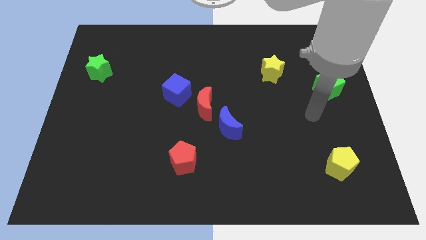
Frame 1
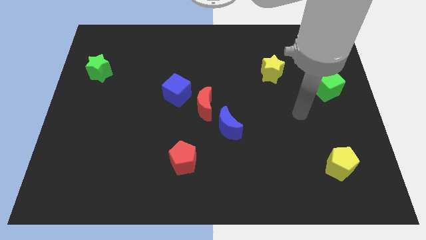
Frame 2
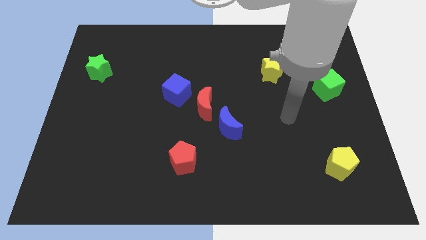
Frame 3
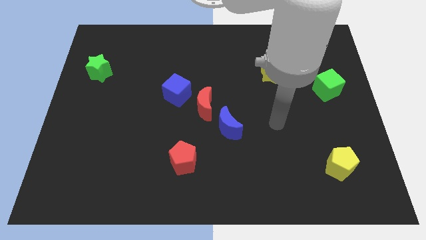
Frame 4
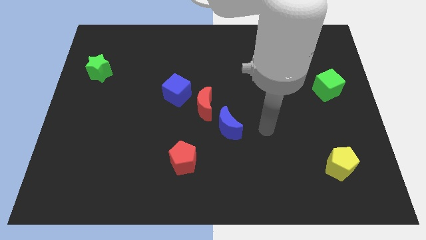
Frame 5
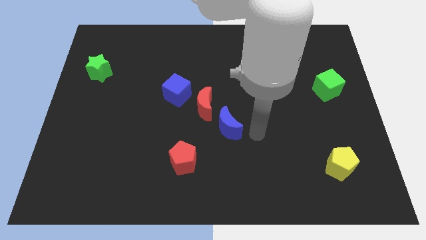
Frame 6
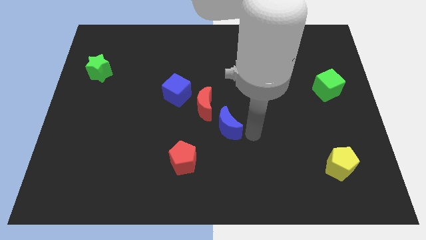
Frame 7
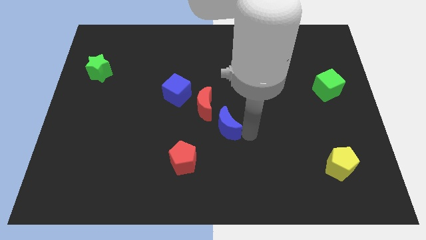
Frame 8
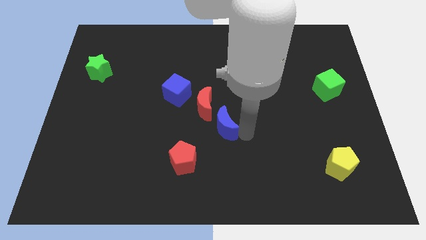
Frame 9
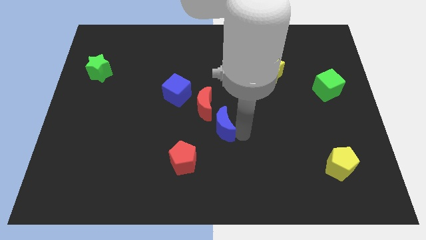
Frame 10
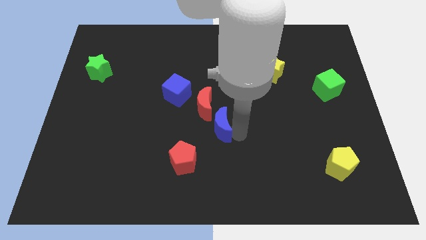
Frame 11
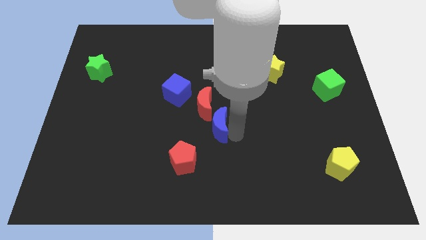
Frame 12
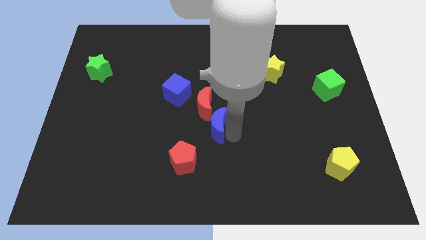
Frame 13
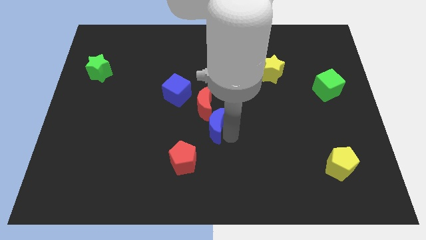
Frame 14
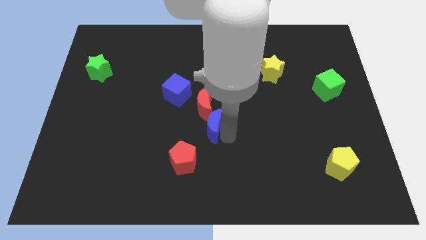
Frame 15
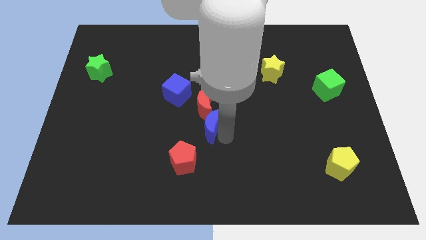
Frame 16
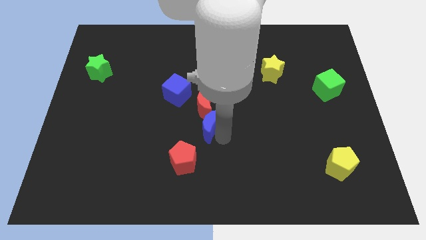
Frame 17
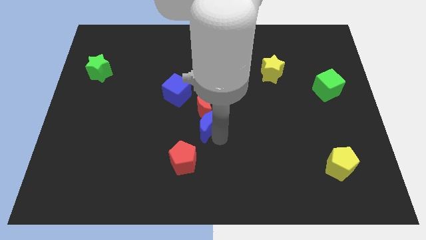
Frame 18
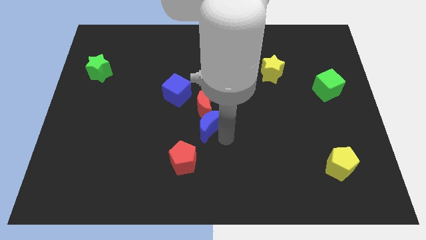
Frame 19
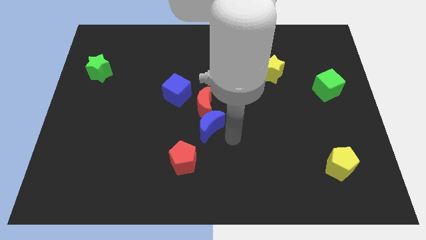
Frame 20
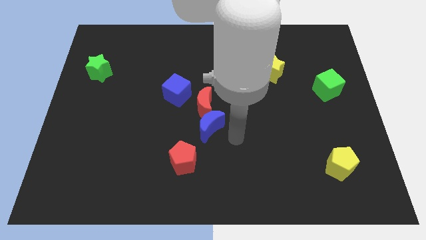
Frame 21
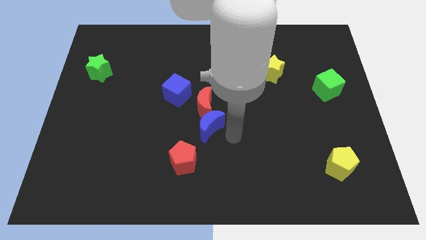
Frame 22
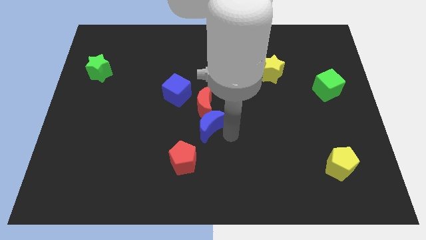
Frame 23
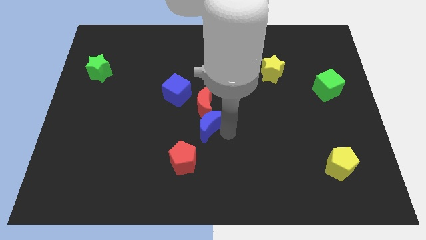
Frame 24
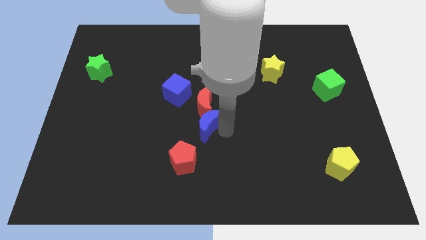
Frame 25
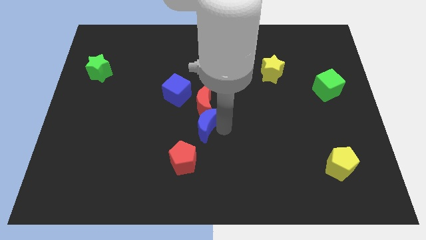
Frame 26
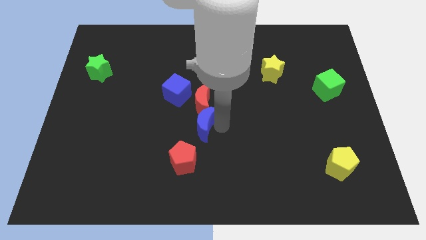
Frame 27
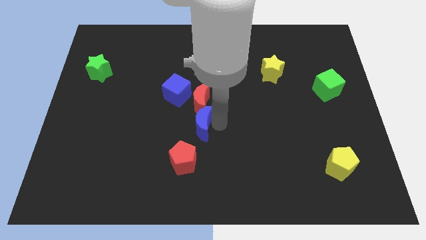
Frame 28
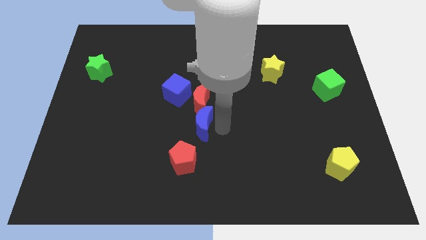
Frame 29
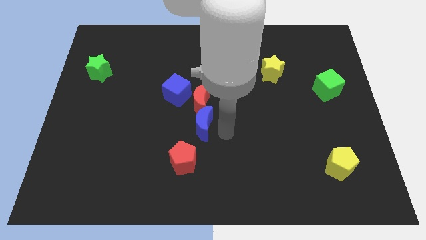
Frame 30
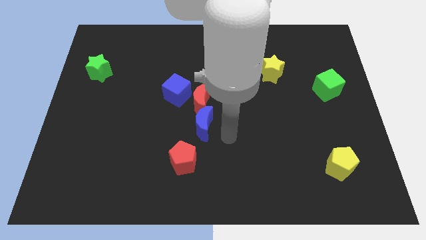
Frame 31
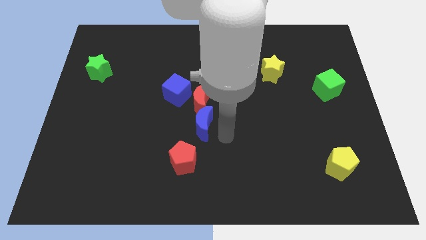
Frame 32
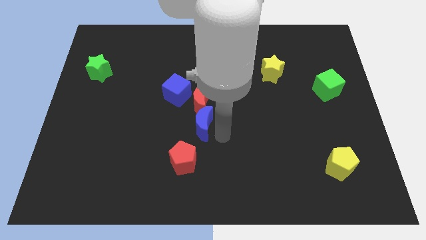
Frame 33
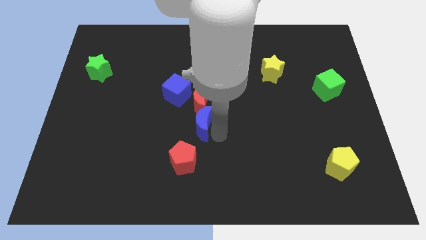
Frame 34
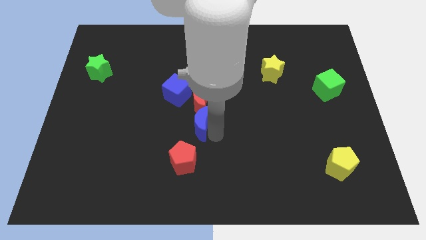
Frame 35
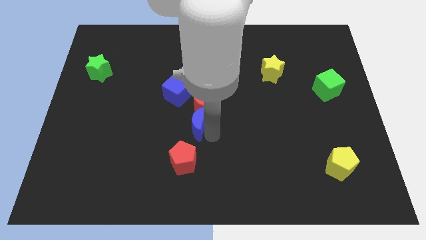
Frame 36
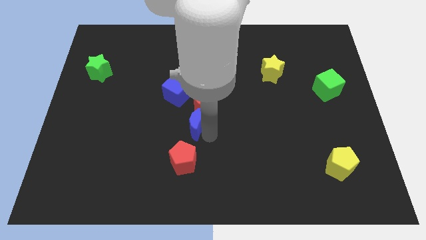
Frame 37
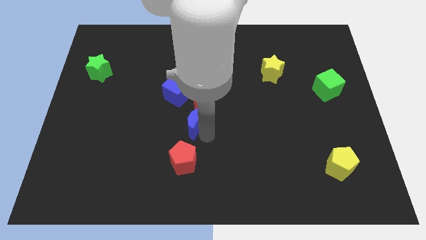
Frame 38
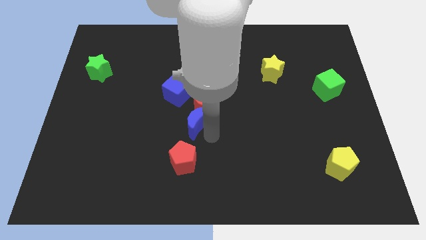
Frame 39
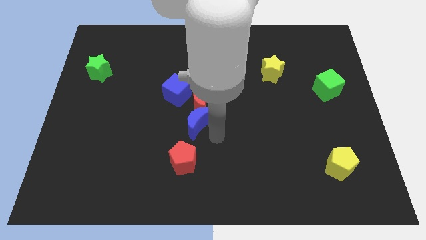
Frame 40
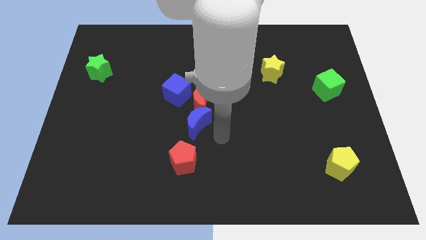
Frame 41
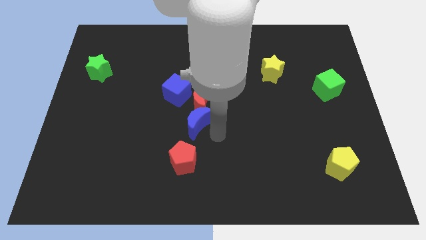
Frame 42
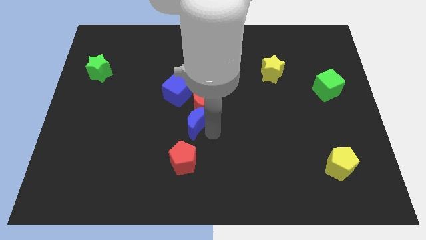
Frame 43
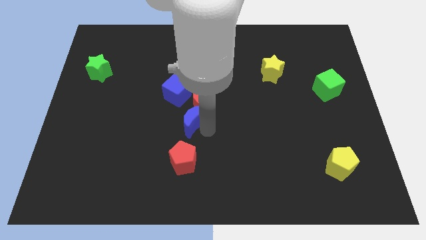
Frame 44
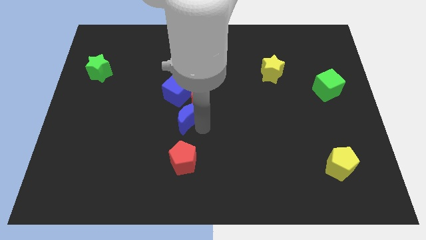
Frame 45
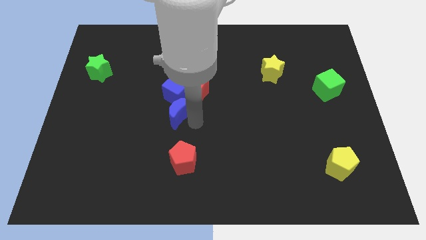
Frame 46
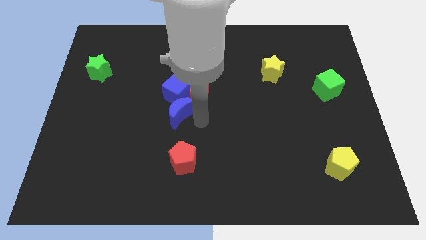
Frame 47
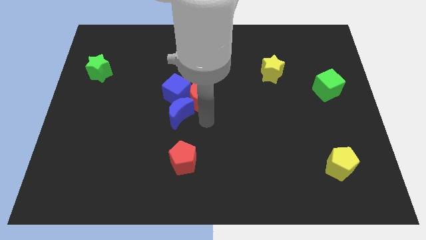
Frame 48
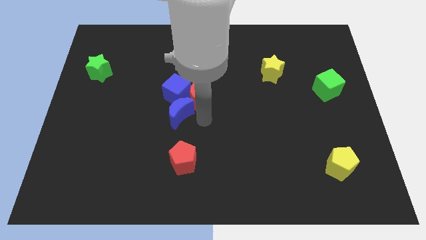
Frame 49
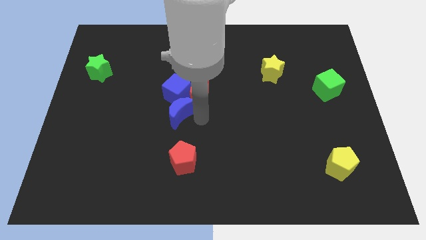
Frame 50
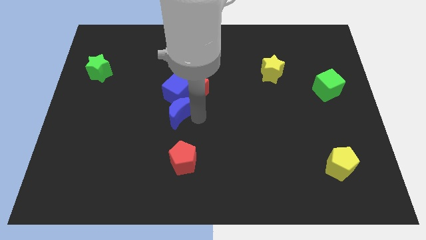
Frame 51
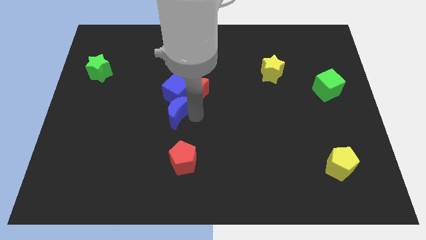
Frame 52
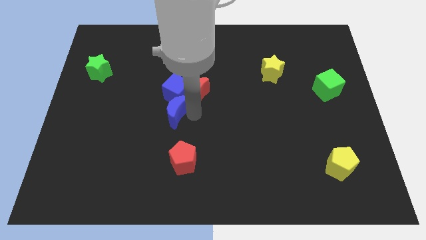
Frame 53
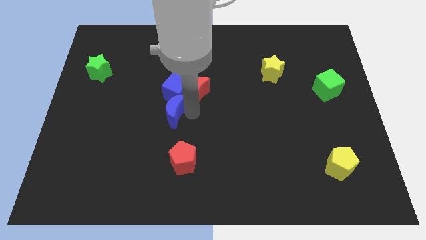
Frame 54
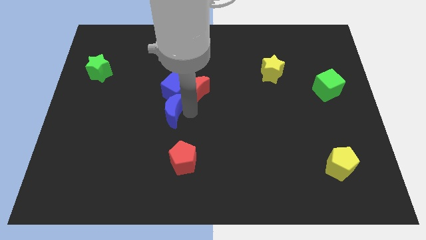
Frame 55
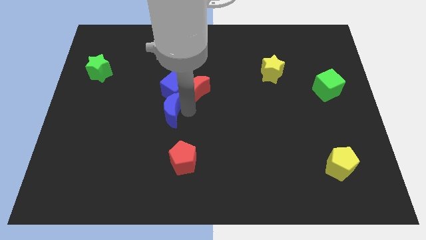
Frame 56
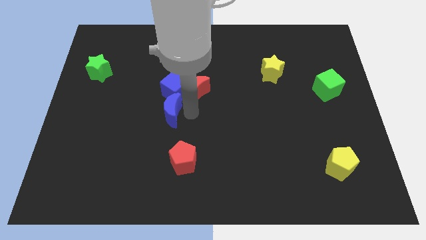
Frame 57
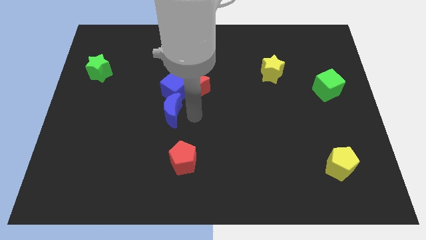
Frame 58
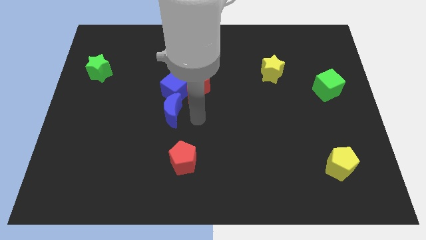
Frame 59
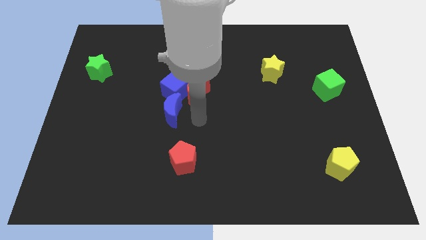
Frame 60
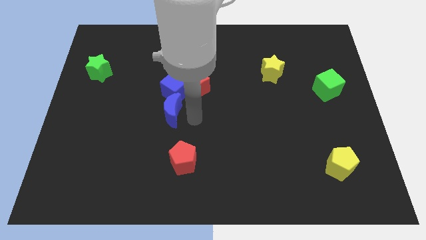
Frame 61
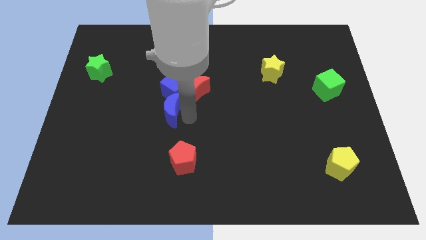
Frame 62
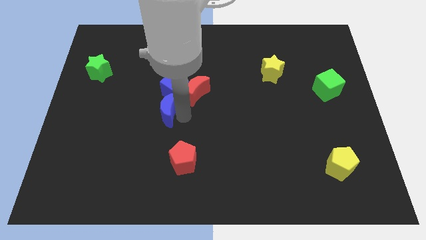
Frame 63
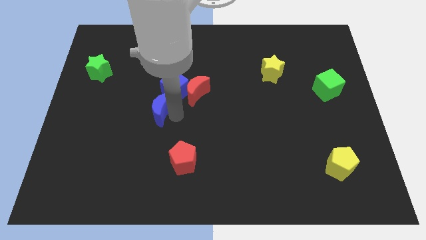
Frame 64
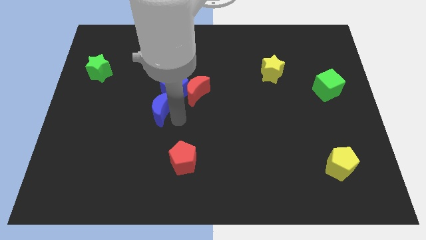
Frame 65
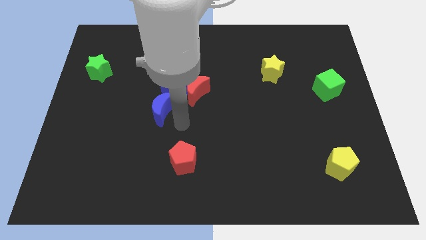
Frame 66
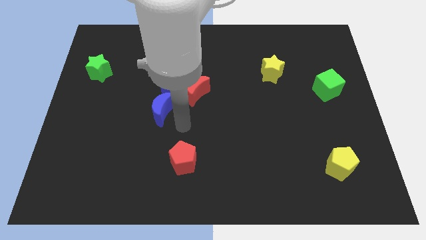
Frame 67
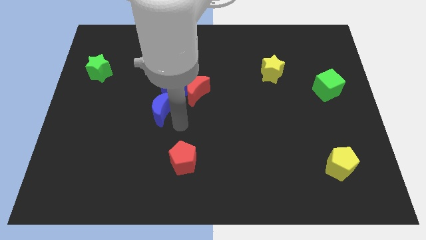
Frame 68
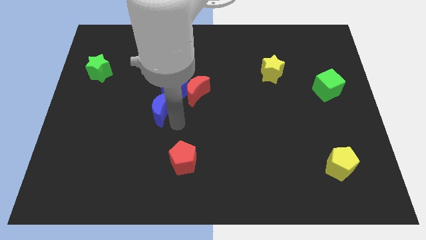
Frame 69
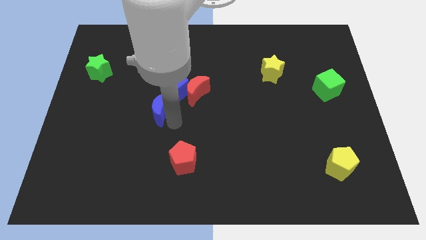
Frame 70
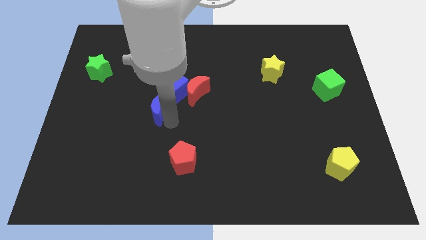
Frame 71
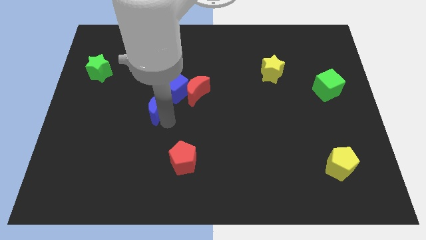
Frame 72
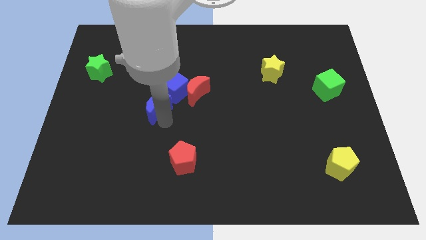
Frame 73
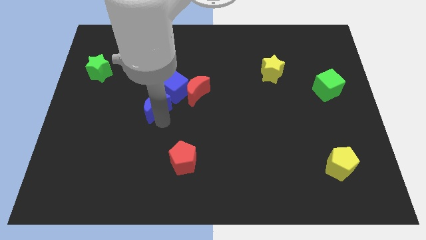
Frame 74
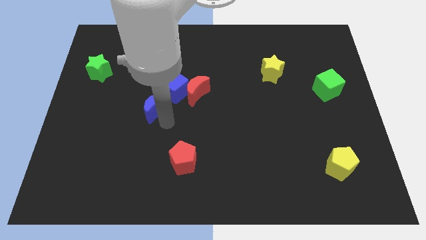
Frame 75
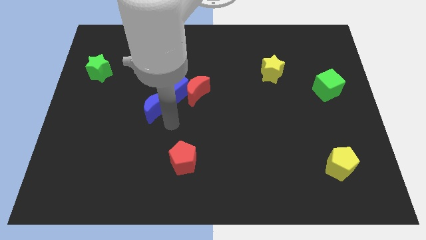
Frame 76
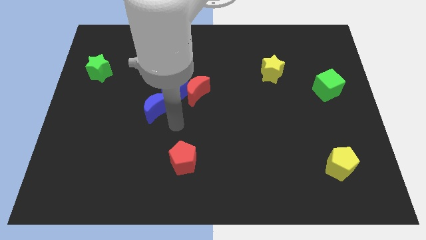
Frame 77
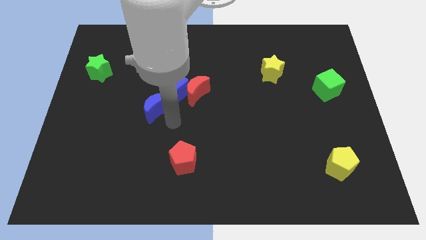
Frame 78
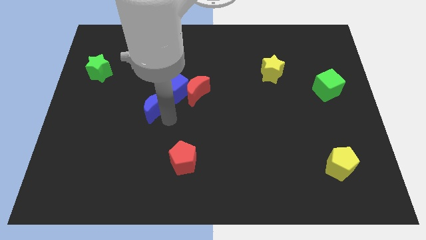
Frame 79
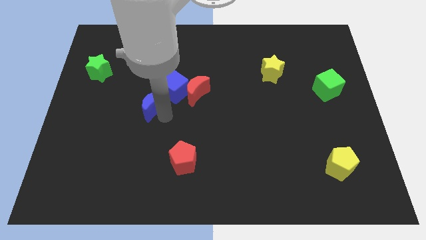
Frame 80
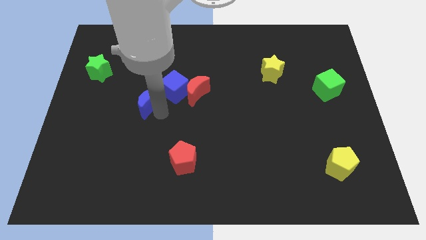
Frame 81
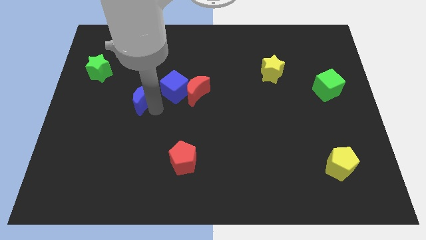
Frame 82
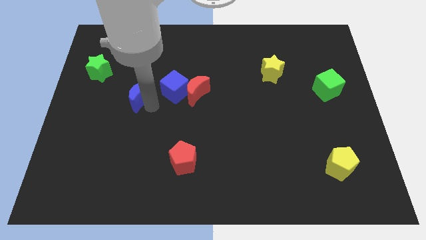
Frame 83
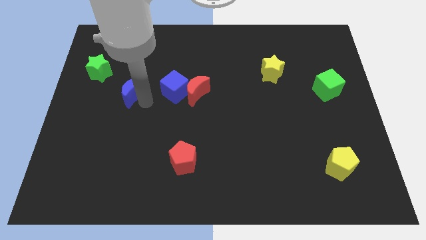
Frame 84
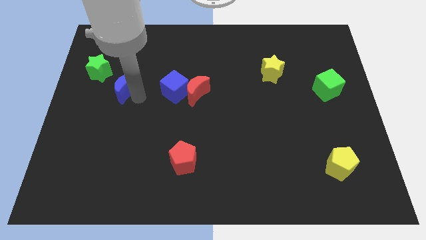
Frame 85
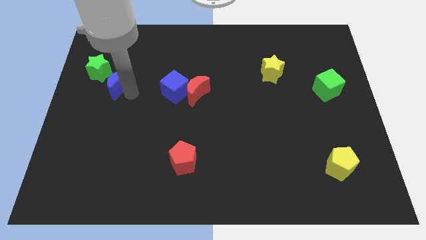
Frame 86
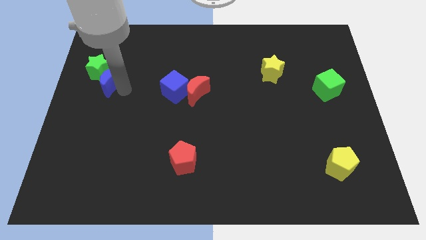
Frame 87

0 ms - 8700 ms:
move the blue moon next to the green star
